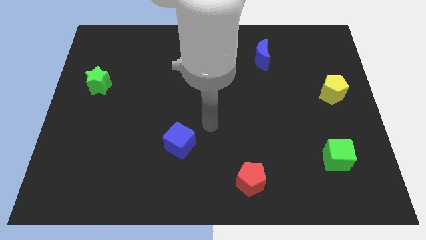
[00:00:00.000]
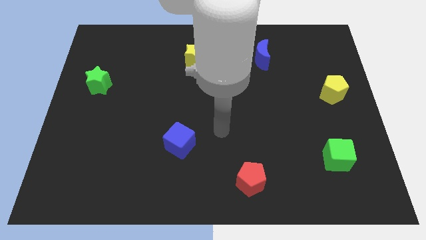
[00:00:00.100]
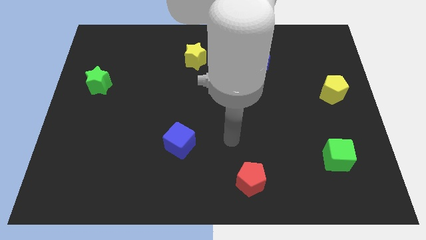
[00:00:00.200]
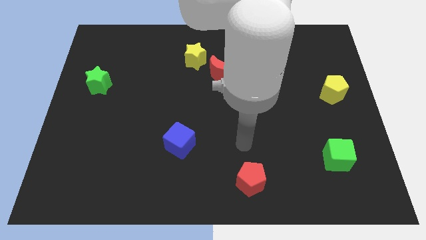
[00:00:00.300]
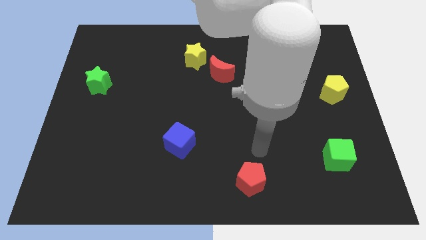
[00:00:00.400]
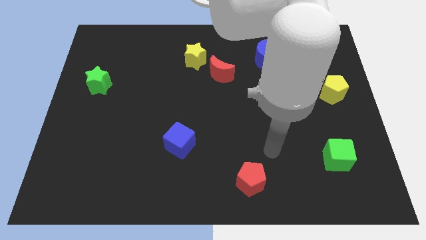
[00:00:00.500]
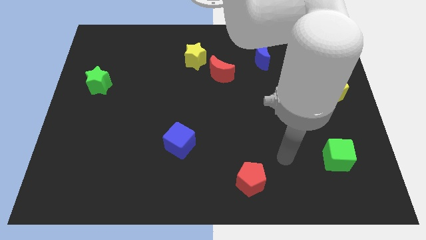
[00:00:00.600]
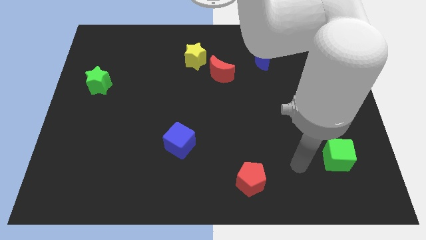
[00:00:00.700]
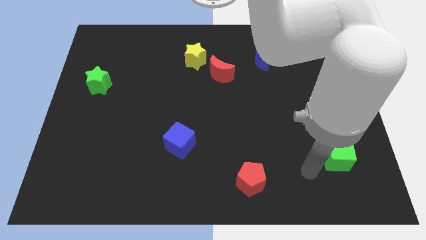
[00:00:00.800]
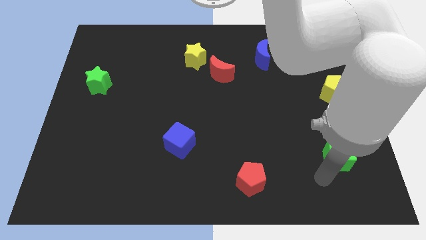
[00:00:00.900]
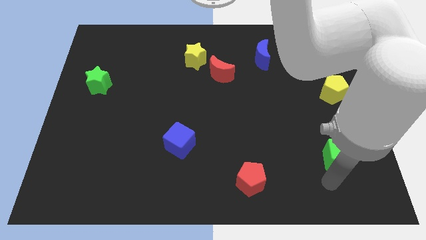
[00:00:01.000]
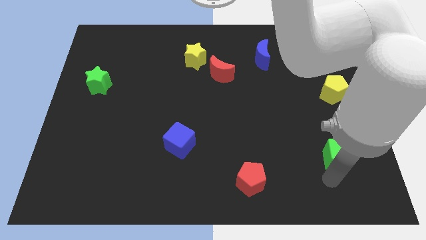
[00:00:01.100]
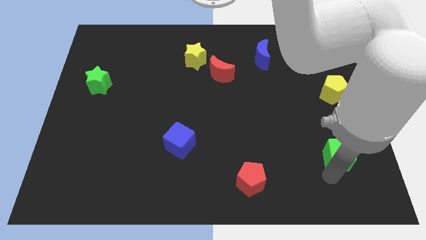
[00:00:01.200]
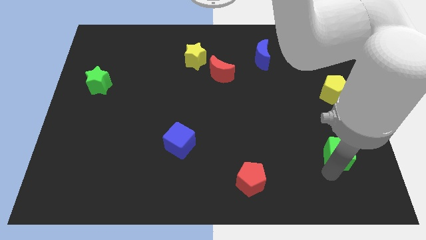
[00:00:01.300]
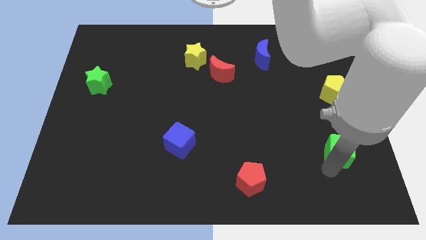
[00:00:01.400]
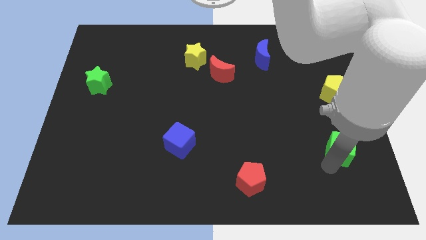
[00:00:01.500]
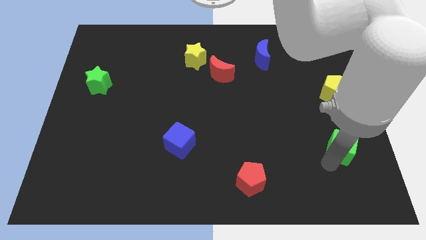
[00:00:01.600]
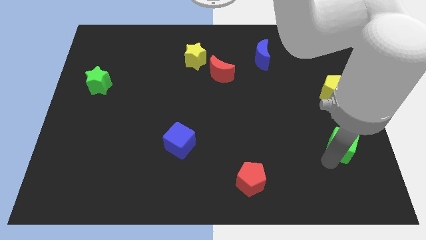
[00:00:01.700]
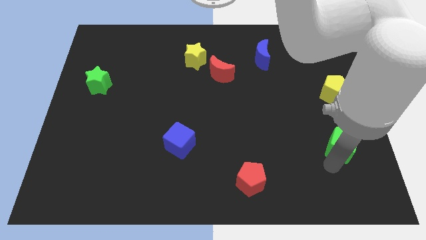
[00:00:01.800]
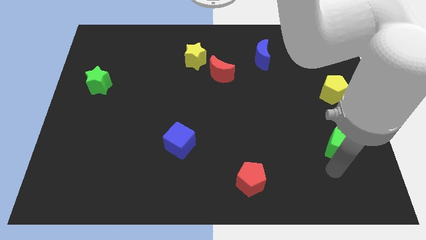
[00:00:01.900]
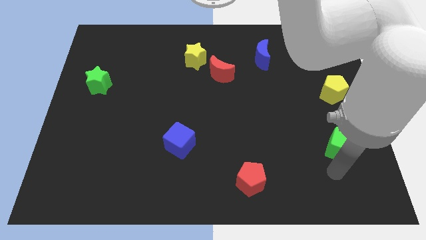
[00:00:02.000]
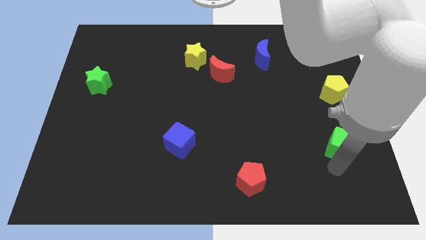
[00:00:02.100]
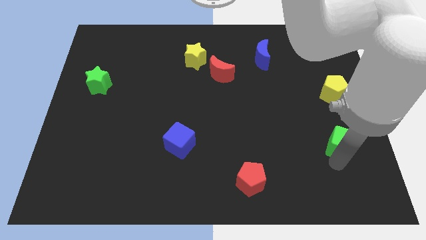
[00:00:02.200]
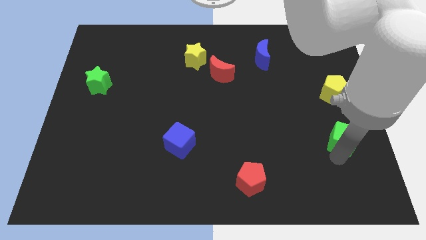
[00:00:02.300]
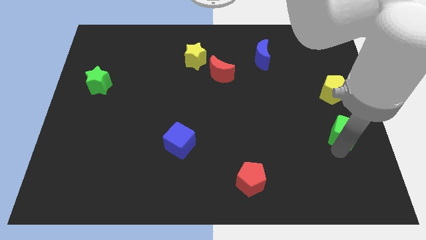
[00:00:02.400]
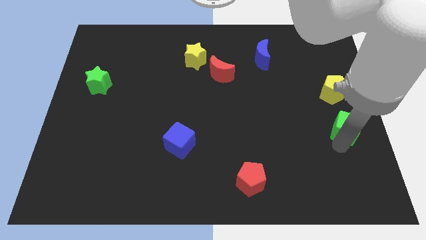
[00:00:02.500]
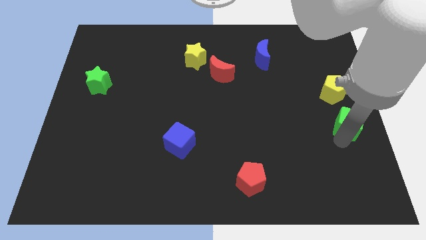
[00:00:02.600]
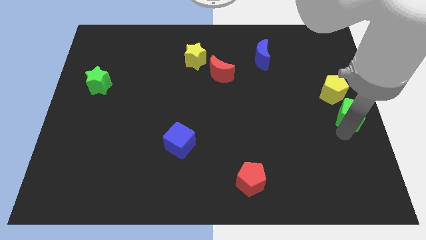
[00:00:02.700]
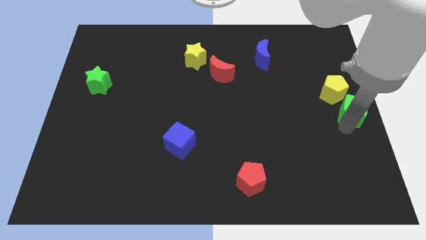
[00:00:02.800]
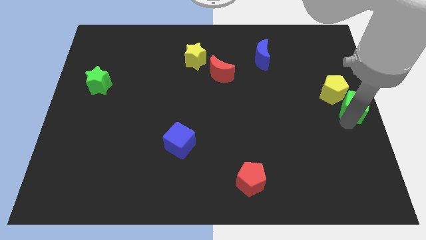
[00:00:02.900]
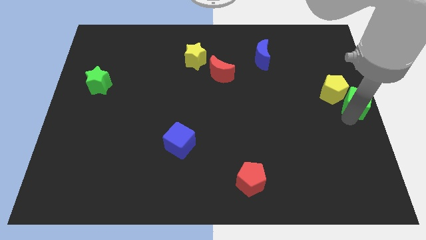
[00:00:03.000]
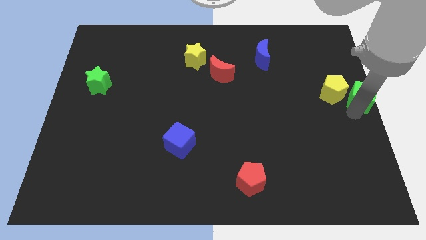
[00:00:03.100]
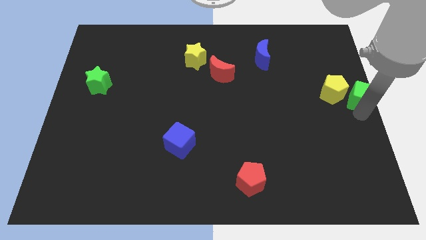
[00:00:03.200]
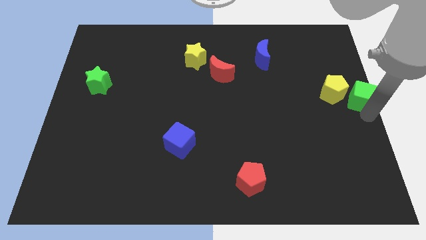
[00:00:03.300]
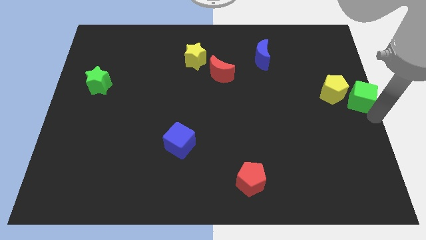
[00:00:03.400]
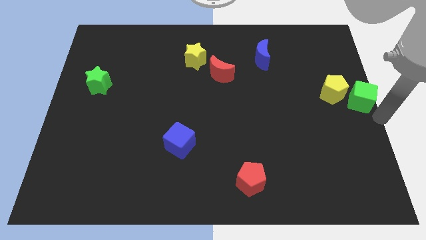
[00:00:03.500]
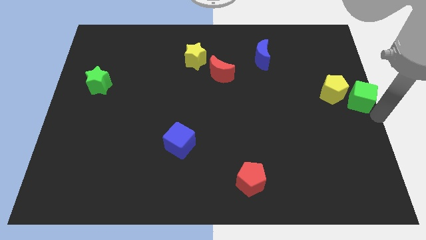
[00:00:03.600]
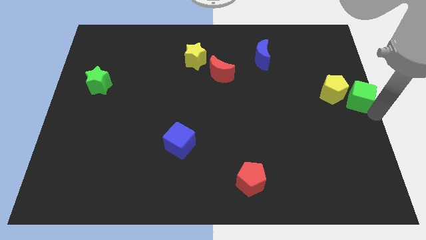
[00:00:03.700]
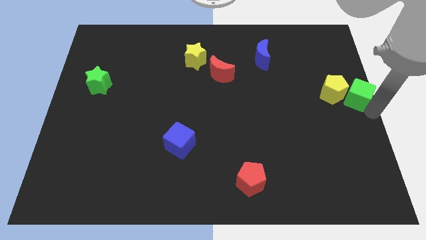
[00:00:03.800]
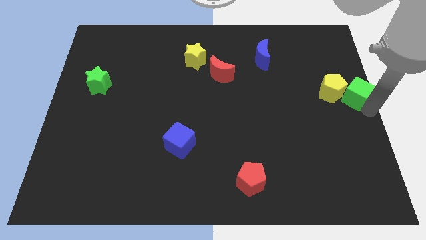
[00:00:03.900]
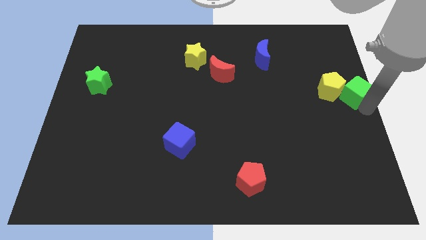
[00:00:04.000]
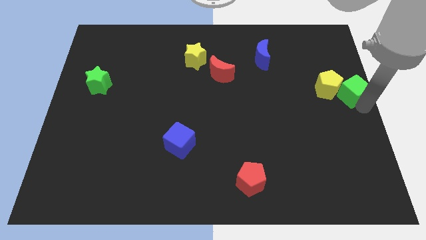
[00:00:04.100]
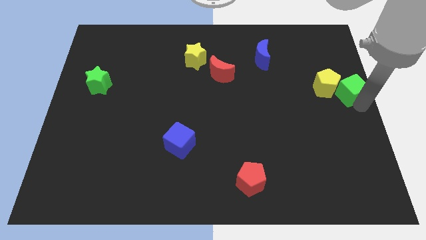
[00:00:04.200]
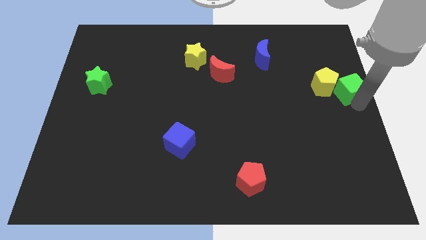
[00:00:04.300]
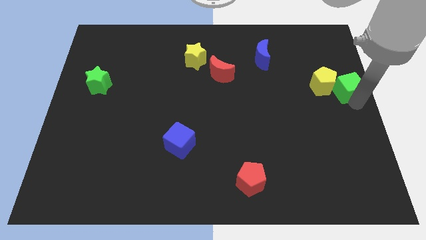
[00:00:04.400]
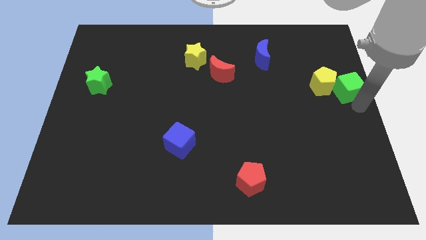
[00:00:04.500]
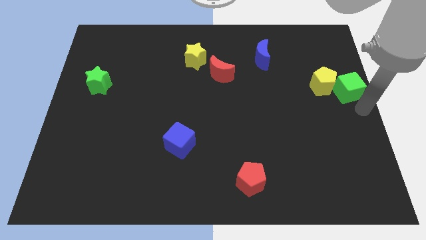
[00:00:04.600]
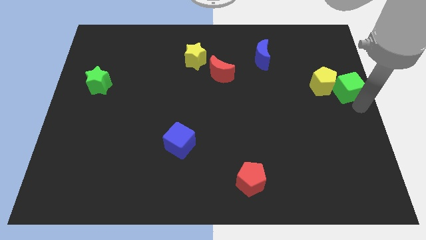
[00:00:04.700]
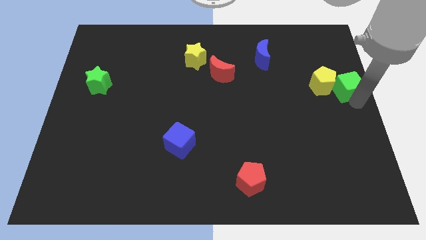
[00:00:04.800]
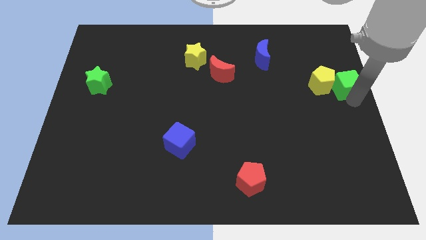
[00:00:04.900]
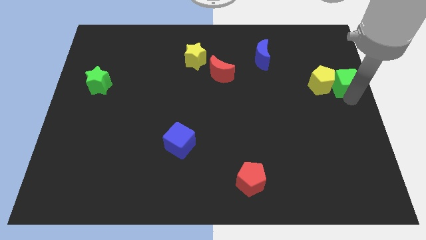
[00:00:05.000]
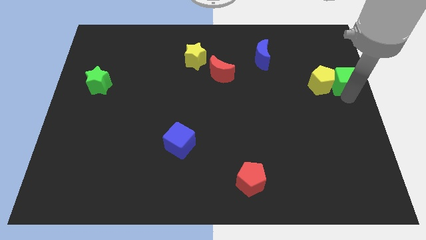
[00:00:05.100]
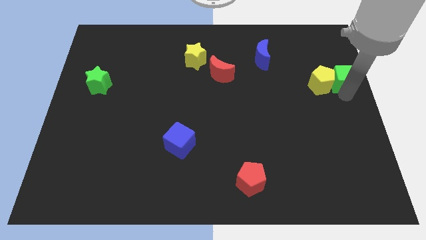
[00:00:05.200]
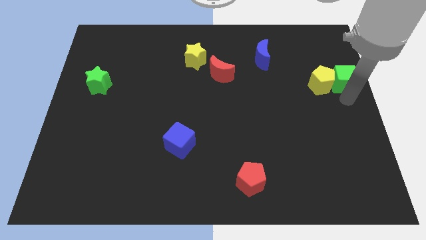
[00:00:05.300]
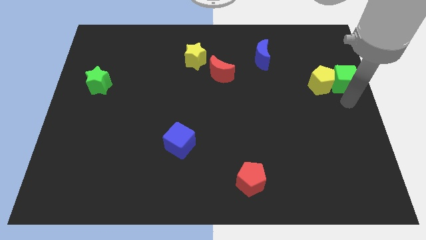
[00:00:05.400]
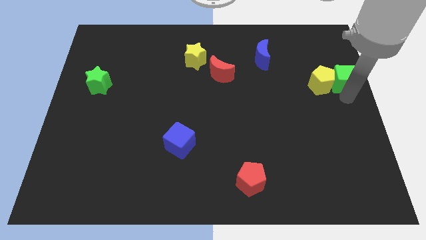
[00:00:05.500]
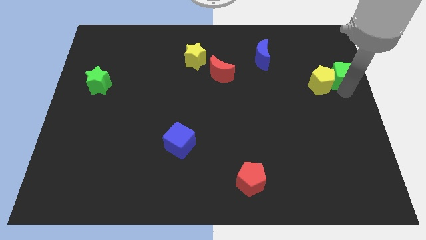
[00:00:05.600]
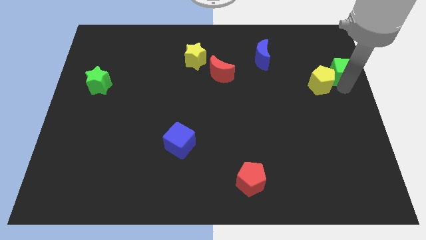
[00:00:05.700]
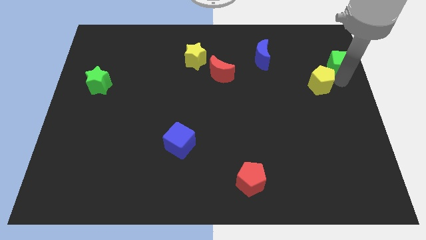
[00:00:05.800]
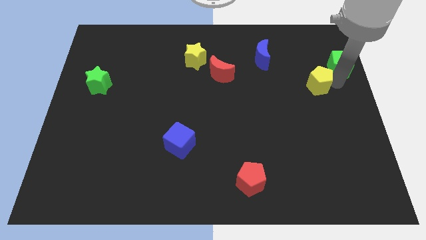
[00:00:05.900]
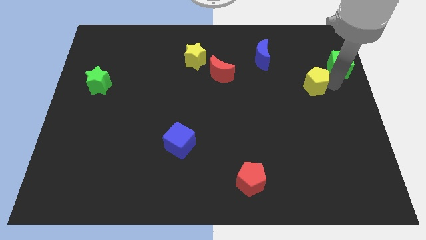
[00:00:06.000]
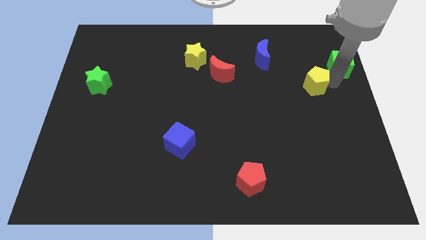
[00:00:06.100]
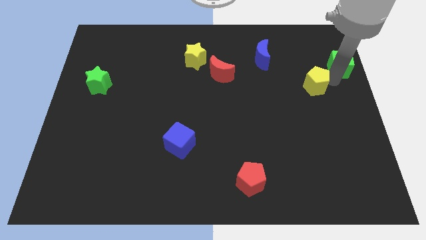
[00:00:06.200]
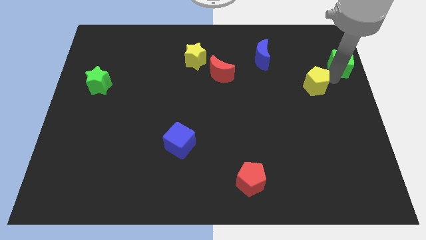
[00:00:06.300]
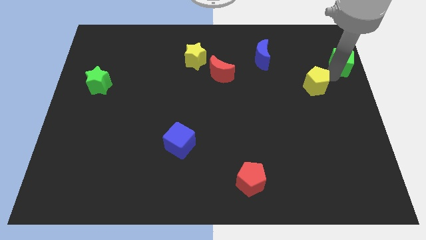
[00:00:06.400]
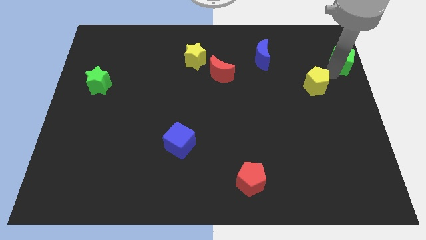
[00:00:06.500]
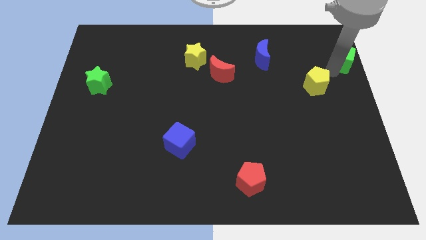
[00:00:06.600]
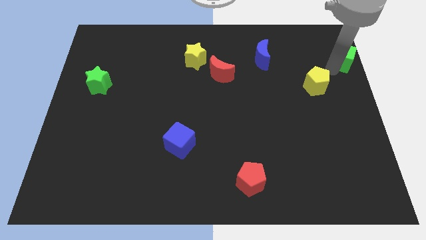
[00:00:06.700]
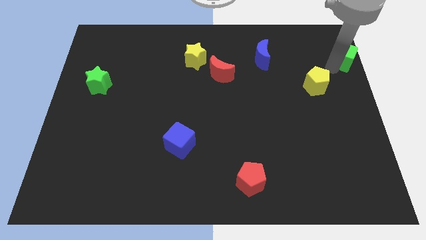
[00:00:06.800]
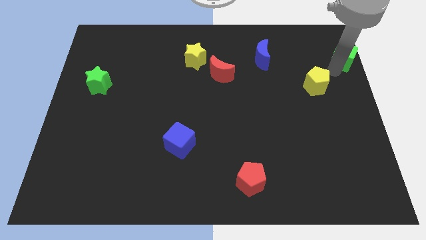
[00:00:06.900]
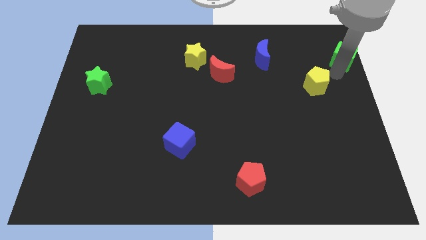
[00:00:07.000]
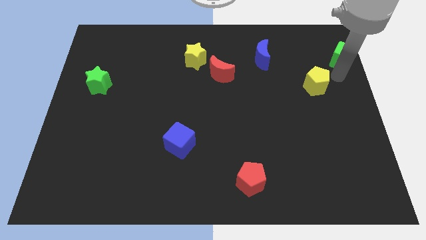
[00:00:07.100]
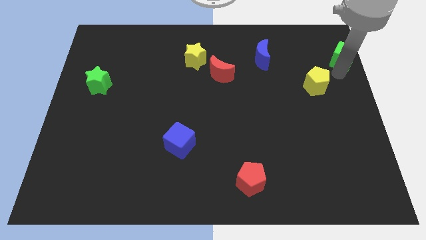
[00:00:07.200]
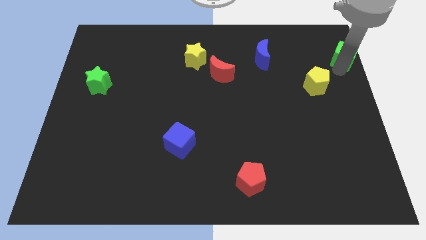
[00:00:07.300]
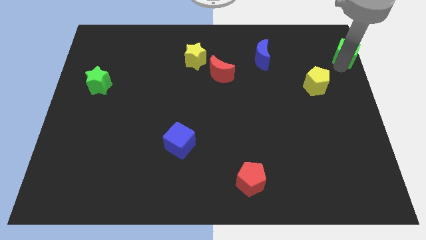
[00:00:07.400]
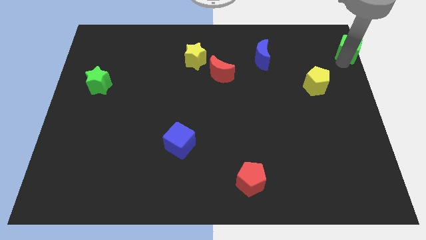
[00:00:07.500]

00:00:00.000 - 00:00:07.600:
slide the green cube to the top right
